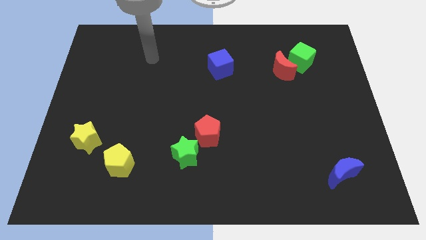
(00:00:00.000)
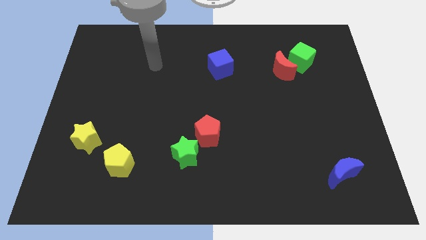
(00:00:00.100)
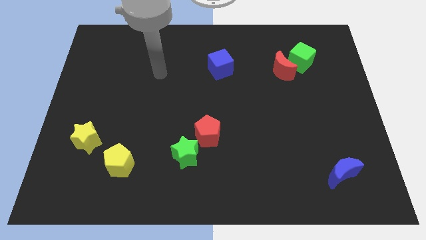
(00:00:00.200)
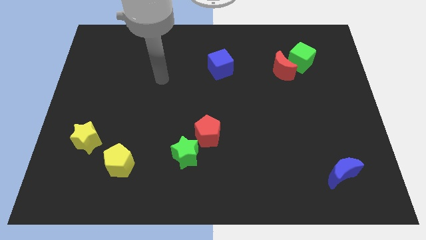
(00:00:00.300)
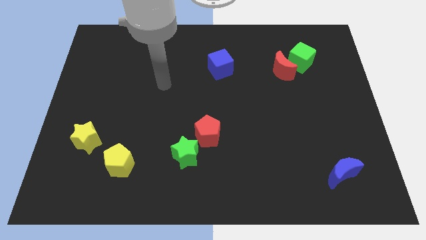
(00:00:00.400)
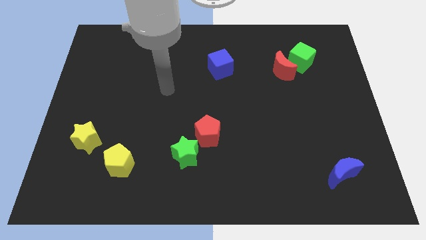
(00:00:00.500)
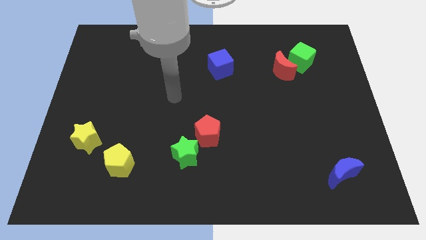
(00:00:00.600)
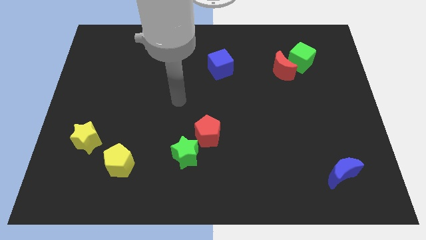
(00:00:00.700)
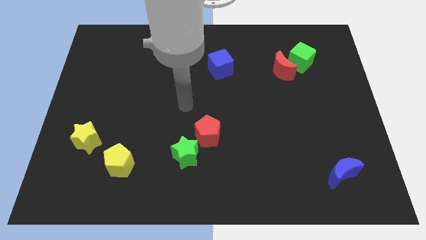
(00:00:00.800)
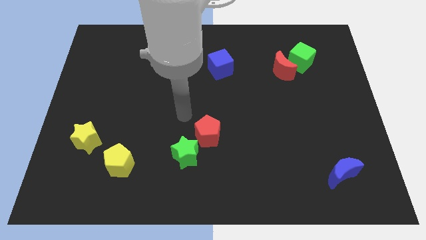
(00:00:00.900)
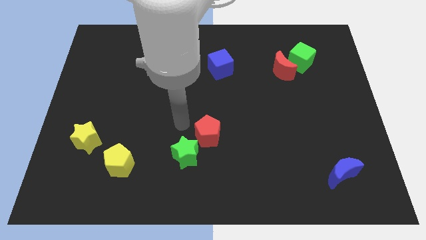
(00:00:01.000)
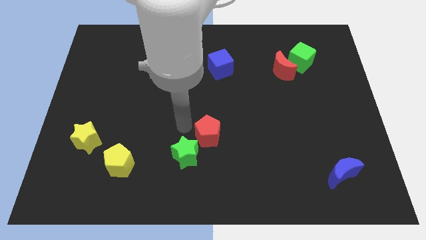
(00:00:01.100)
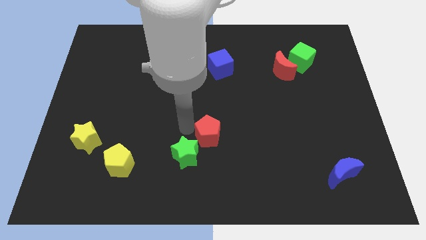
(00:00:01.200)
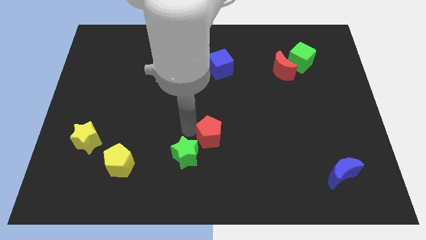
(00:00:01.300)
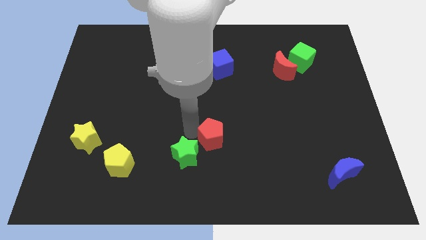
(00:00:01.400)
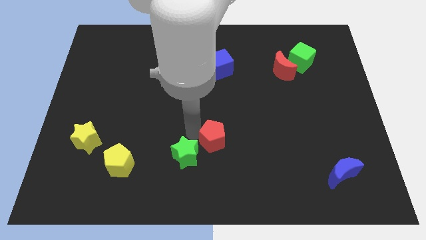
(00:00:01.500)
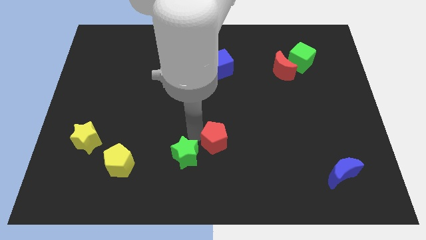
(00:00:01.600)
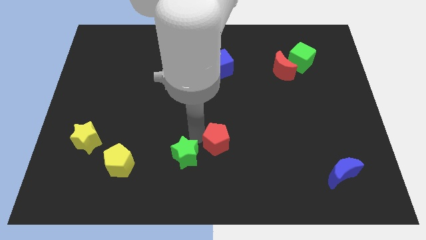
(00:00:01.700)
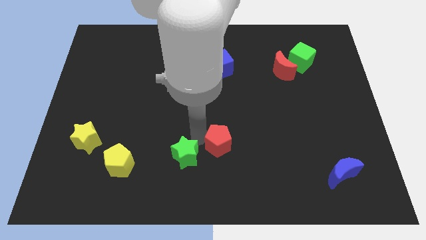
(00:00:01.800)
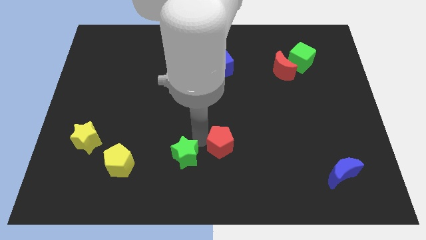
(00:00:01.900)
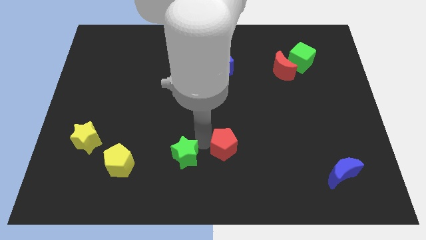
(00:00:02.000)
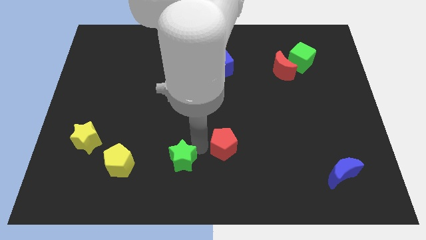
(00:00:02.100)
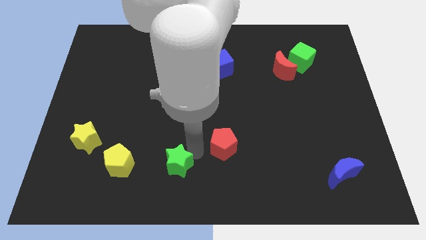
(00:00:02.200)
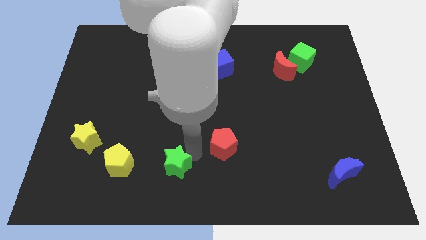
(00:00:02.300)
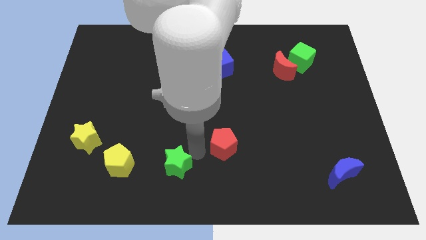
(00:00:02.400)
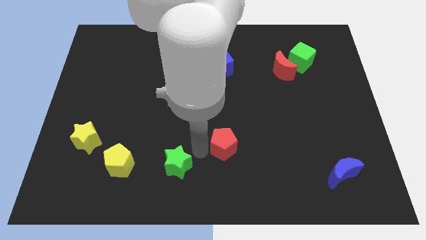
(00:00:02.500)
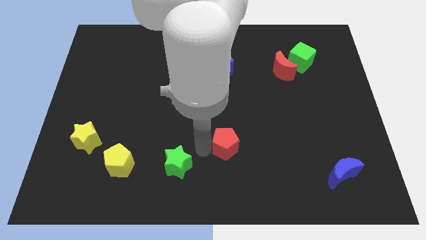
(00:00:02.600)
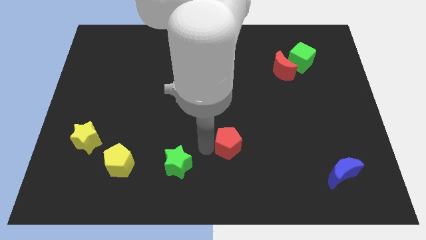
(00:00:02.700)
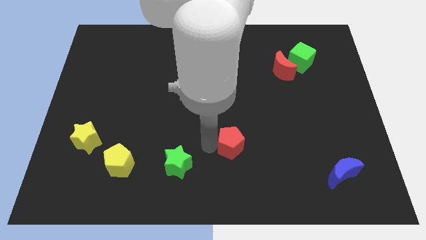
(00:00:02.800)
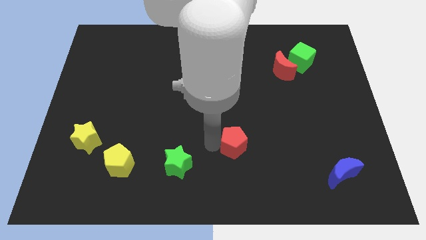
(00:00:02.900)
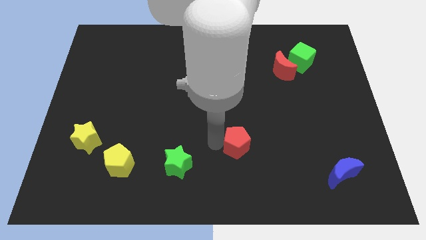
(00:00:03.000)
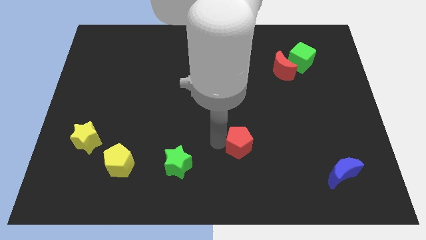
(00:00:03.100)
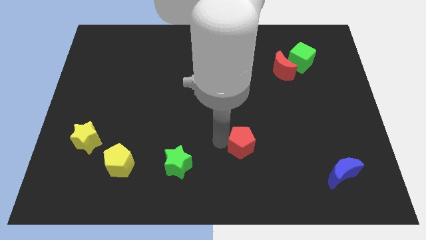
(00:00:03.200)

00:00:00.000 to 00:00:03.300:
slightly push the red pentagon to the right

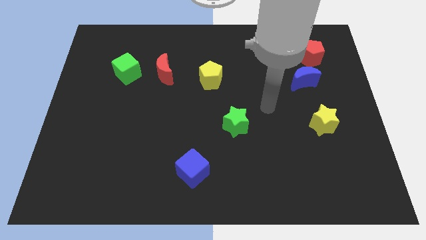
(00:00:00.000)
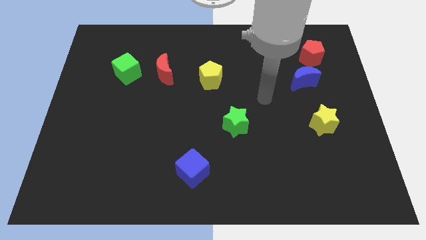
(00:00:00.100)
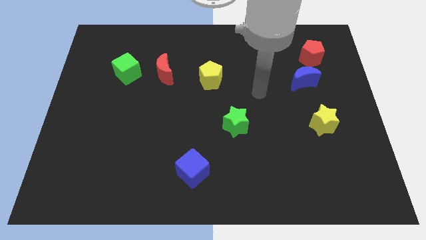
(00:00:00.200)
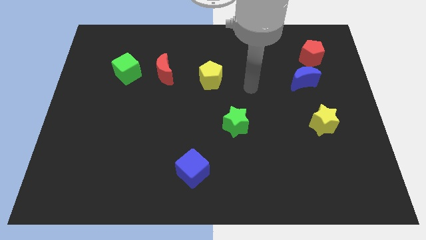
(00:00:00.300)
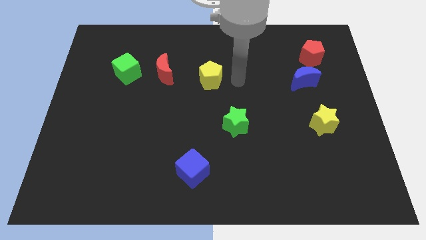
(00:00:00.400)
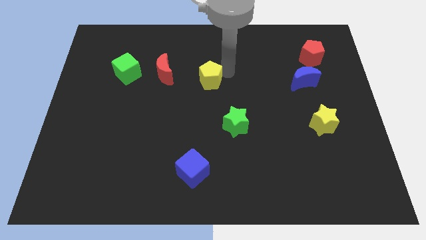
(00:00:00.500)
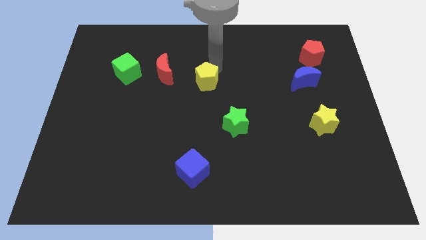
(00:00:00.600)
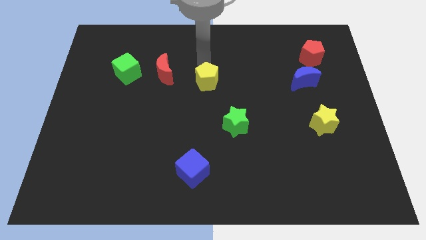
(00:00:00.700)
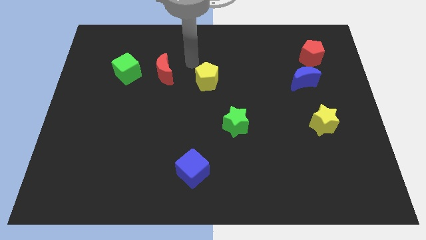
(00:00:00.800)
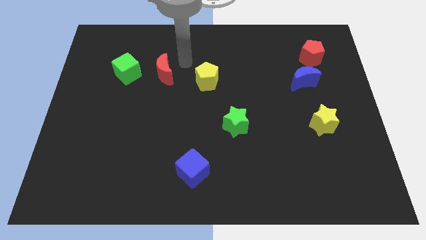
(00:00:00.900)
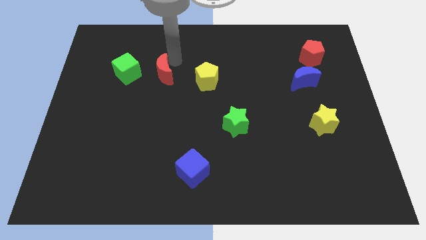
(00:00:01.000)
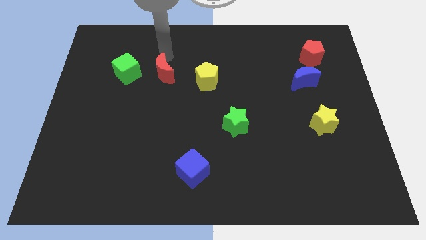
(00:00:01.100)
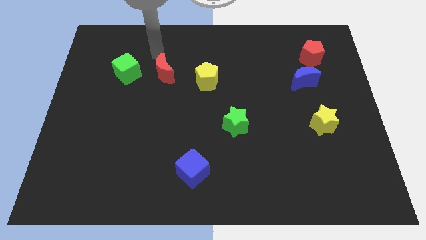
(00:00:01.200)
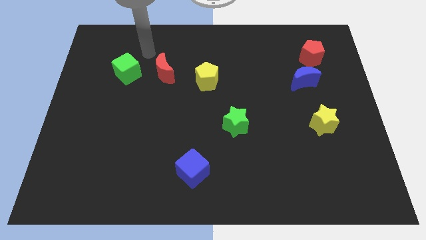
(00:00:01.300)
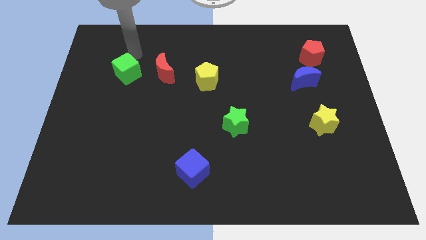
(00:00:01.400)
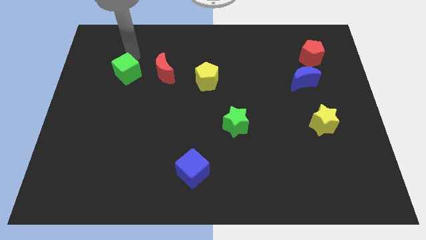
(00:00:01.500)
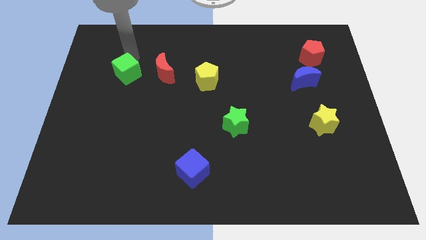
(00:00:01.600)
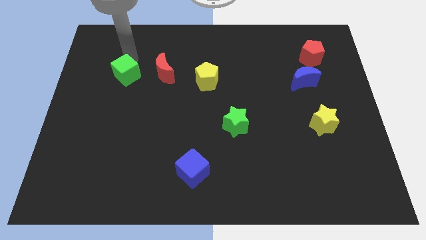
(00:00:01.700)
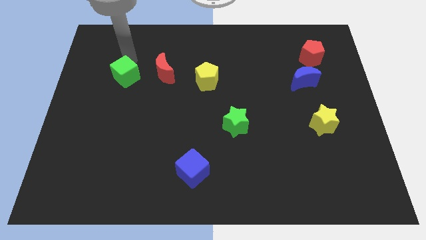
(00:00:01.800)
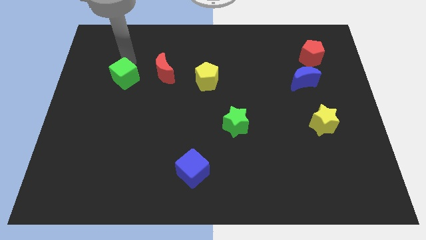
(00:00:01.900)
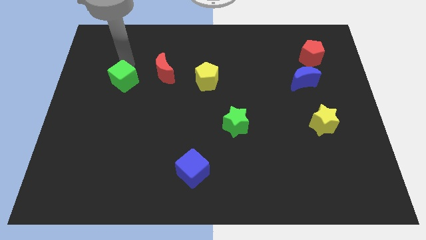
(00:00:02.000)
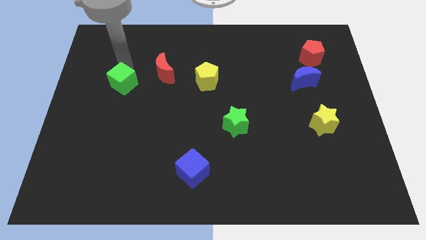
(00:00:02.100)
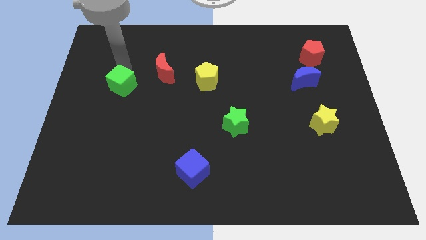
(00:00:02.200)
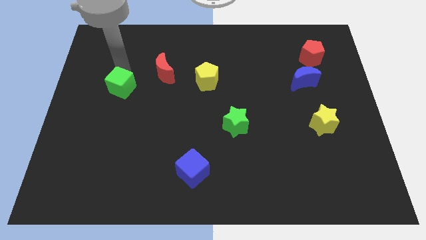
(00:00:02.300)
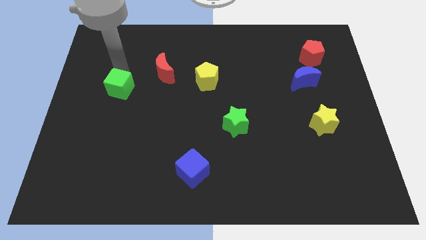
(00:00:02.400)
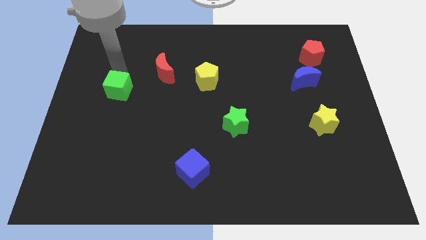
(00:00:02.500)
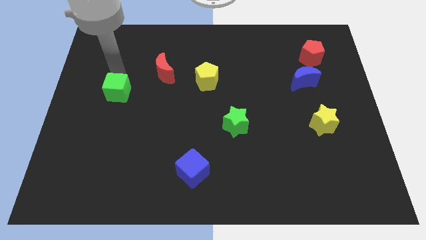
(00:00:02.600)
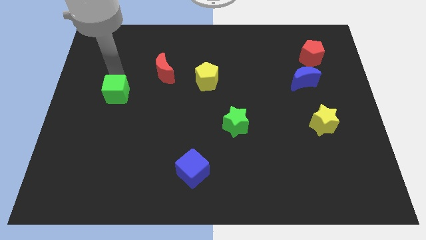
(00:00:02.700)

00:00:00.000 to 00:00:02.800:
slightly move the green cube downwards

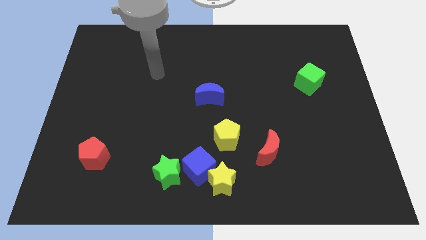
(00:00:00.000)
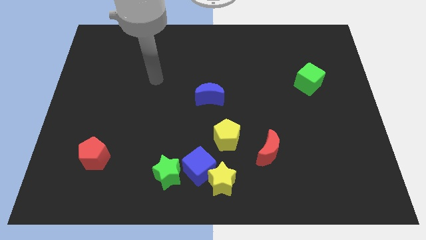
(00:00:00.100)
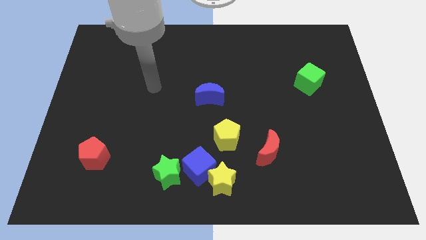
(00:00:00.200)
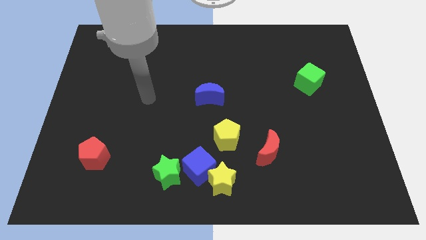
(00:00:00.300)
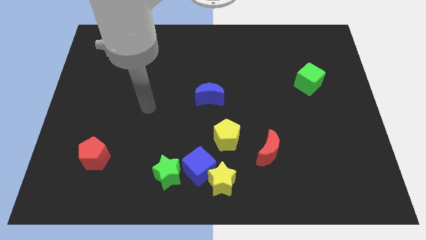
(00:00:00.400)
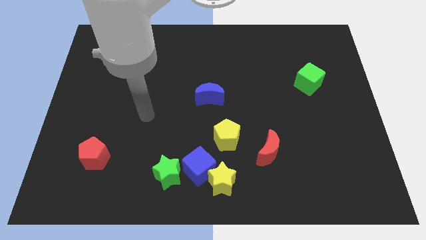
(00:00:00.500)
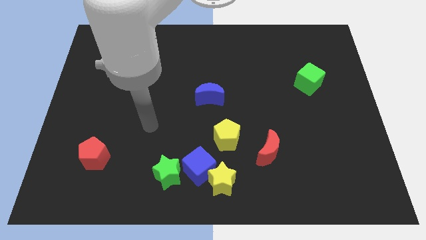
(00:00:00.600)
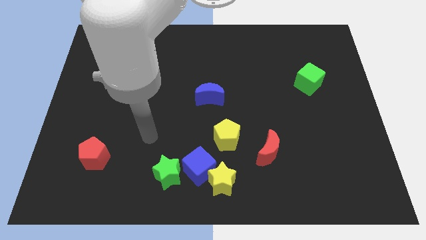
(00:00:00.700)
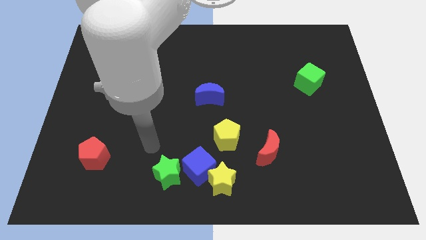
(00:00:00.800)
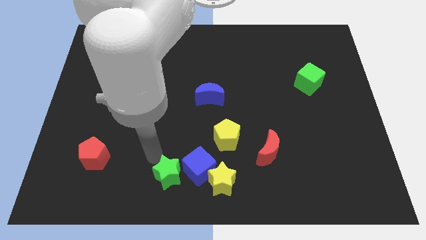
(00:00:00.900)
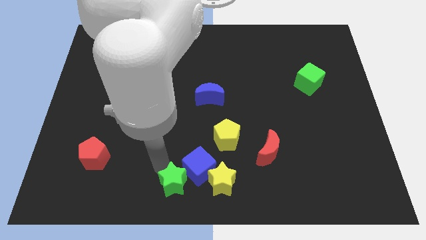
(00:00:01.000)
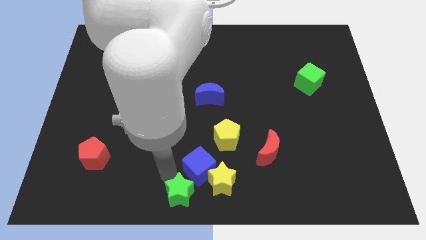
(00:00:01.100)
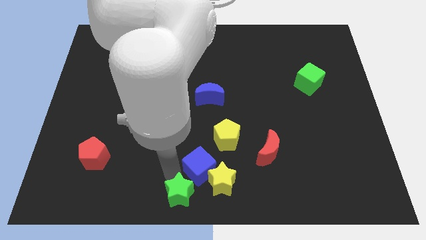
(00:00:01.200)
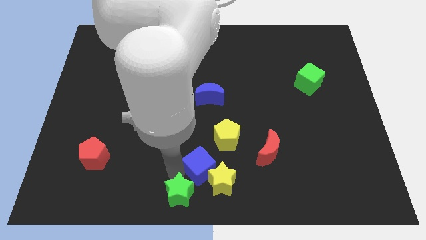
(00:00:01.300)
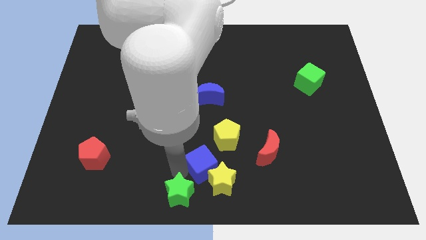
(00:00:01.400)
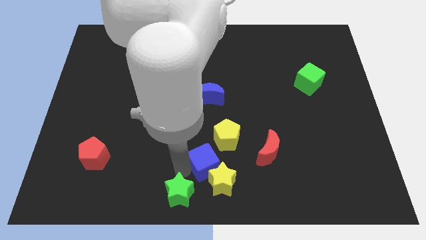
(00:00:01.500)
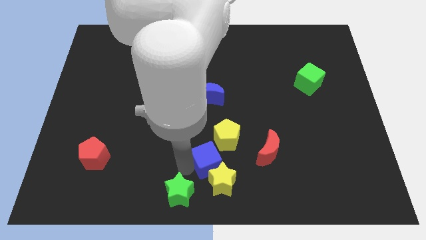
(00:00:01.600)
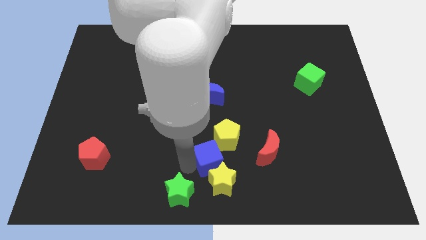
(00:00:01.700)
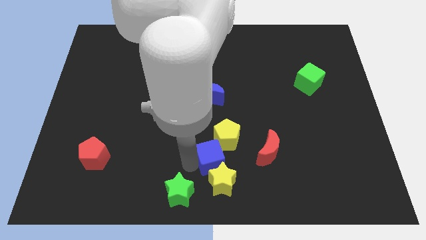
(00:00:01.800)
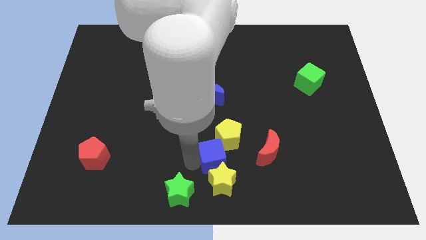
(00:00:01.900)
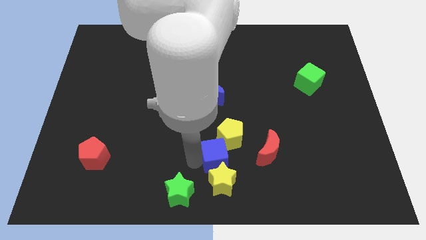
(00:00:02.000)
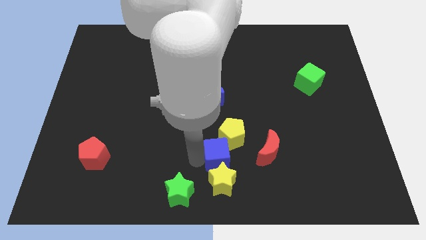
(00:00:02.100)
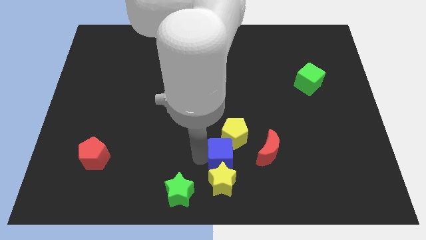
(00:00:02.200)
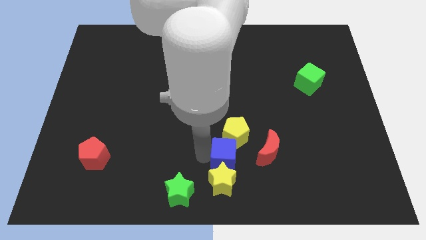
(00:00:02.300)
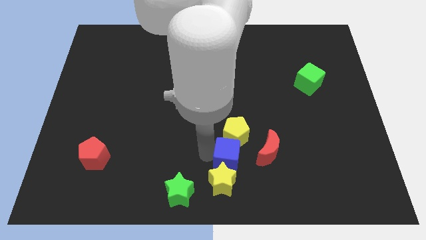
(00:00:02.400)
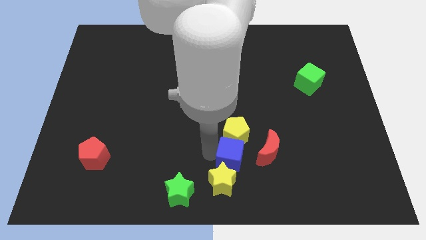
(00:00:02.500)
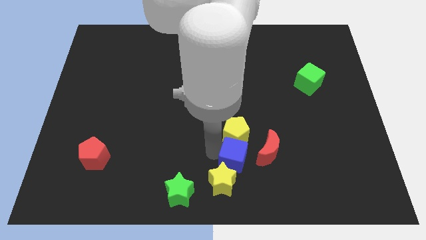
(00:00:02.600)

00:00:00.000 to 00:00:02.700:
push the blue cube slightly right
